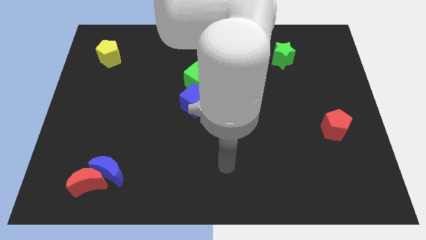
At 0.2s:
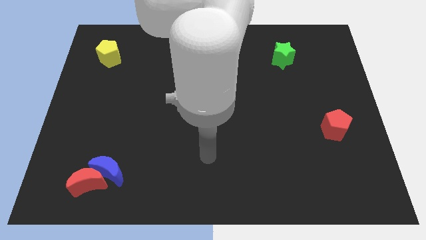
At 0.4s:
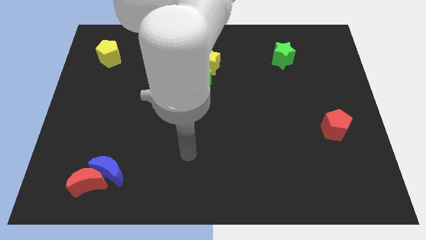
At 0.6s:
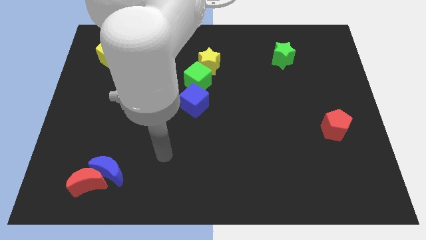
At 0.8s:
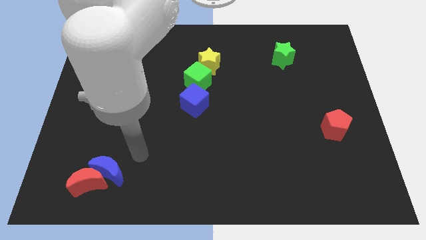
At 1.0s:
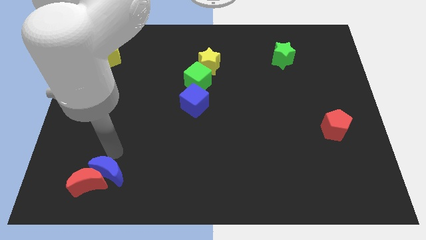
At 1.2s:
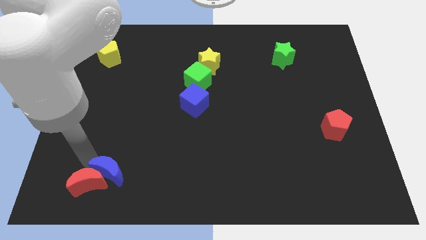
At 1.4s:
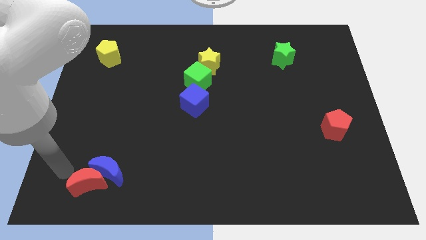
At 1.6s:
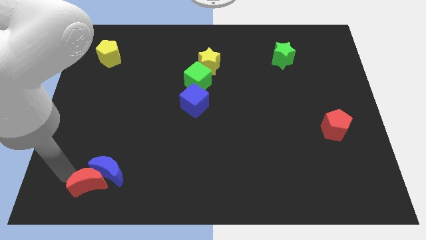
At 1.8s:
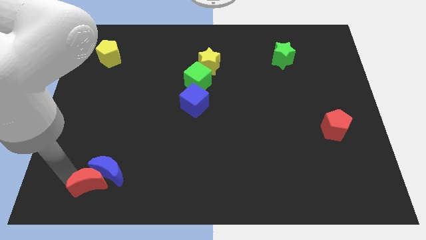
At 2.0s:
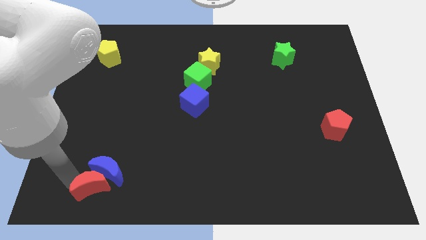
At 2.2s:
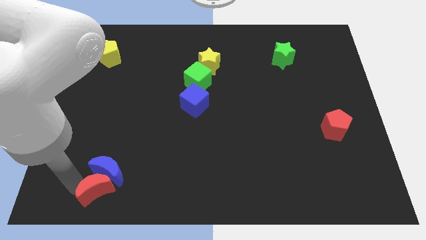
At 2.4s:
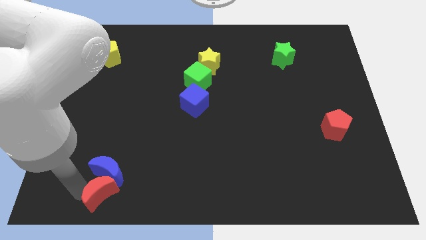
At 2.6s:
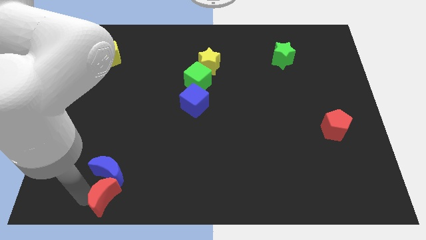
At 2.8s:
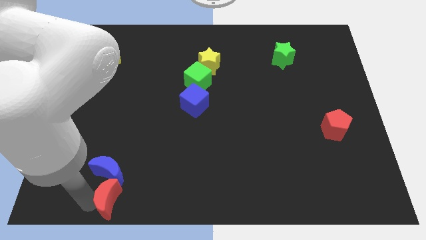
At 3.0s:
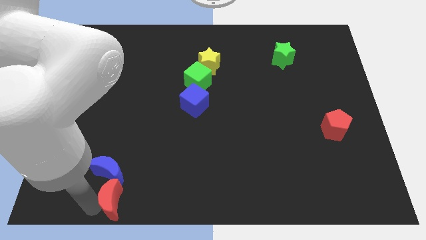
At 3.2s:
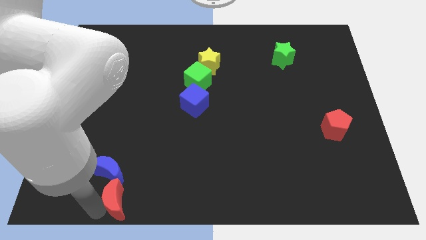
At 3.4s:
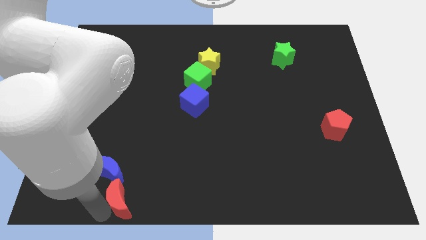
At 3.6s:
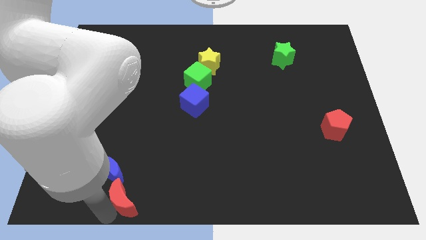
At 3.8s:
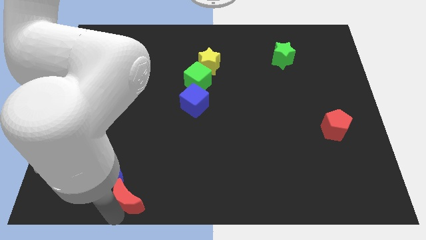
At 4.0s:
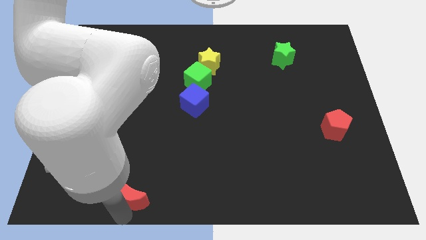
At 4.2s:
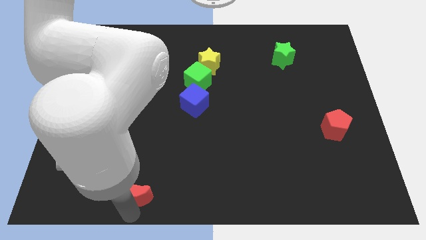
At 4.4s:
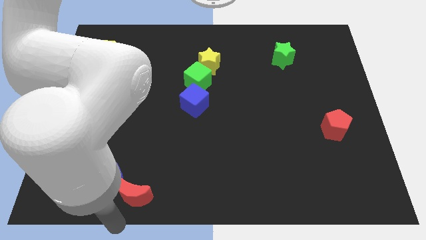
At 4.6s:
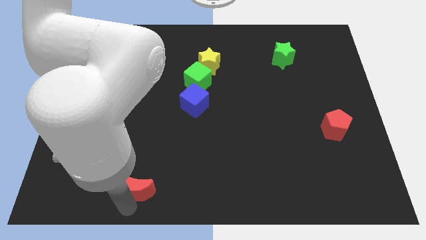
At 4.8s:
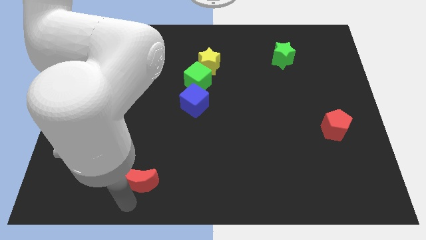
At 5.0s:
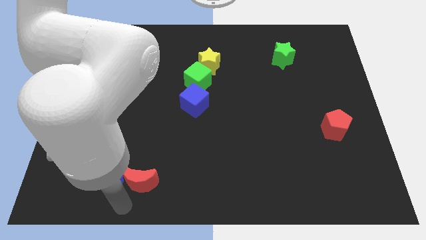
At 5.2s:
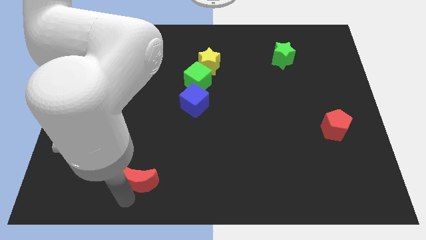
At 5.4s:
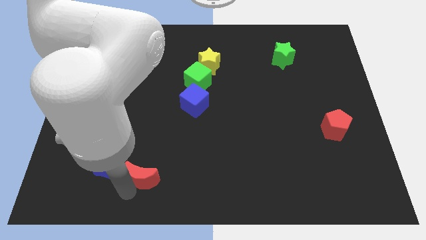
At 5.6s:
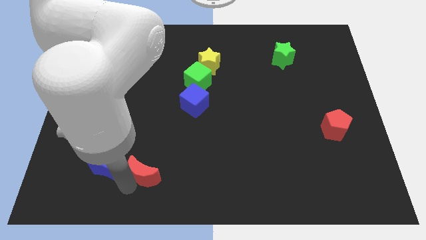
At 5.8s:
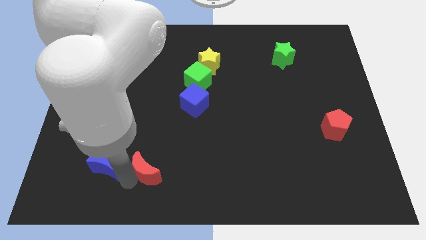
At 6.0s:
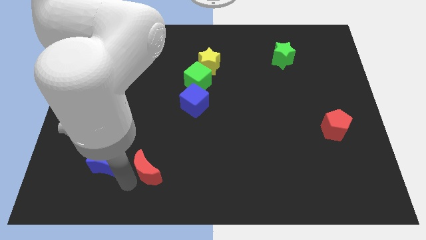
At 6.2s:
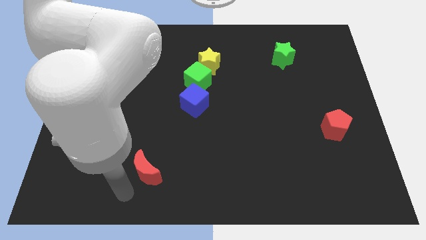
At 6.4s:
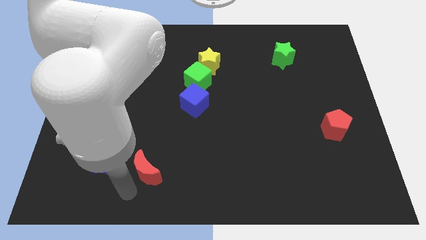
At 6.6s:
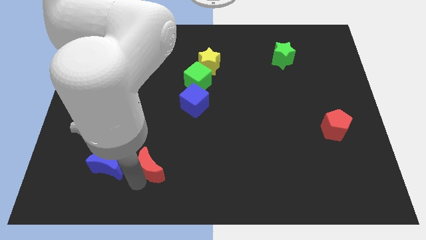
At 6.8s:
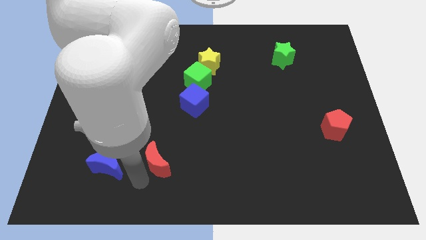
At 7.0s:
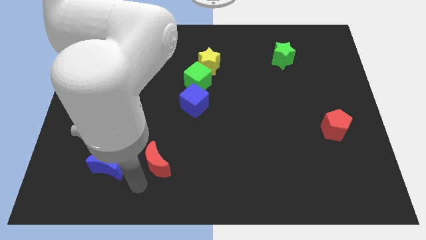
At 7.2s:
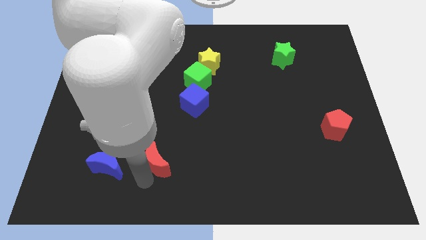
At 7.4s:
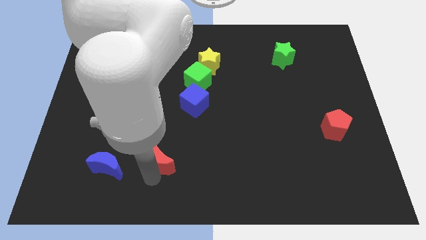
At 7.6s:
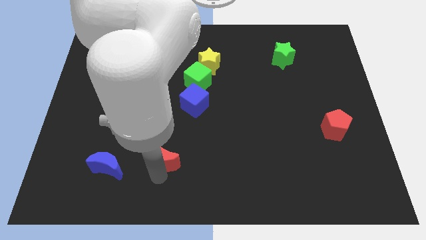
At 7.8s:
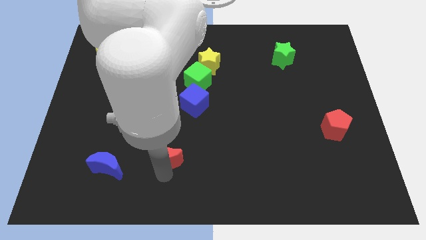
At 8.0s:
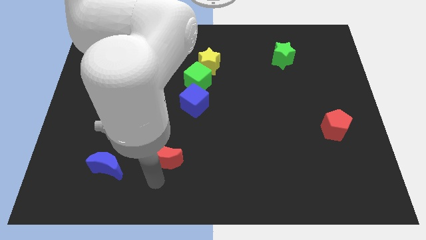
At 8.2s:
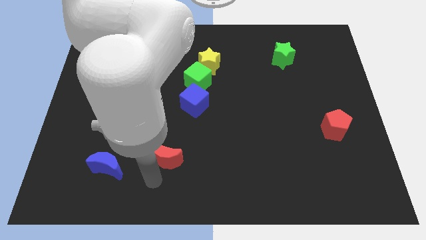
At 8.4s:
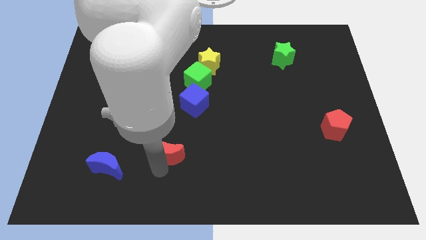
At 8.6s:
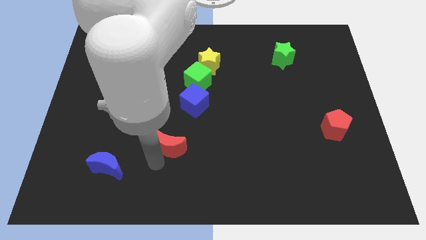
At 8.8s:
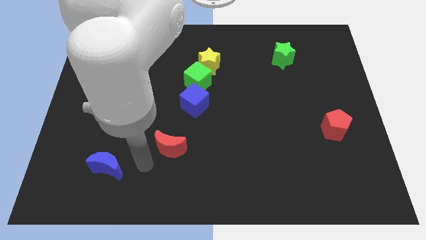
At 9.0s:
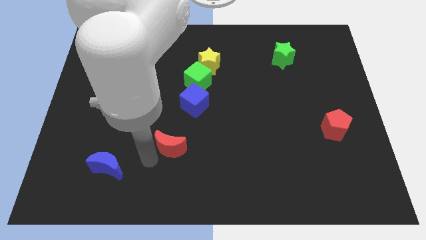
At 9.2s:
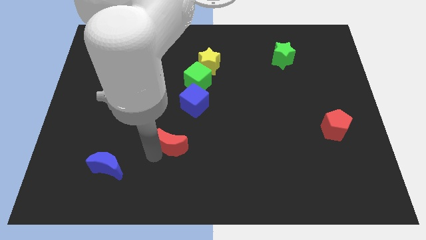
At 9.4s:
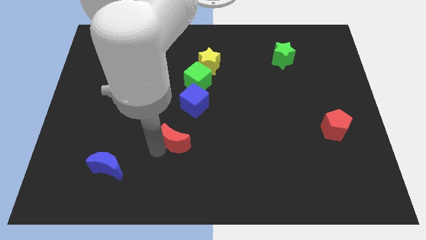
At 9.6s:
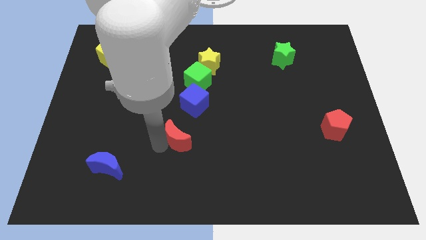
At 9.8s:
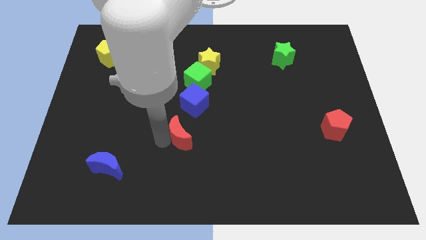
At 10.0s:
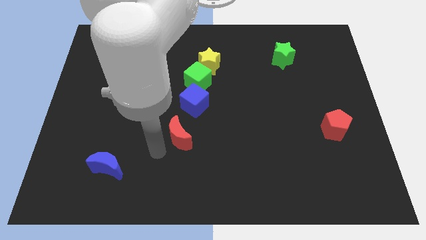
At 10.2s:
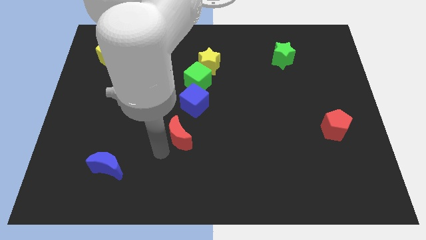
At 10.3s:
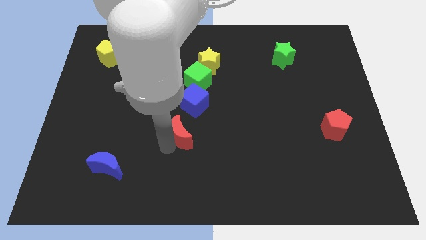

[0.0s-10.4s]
move the red moon to the middle of the board

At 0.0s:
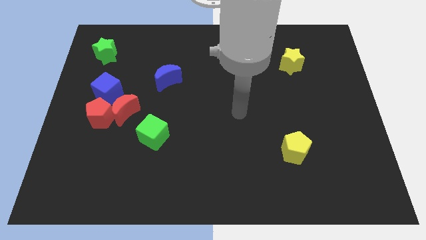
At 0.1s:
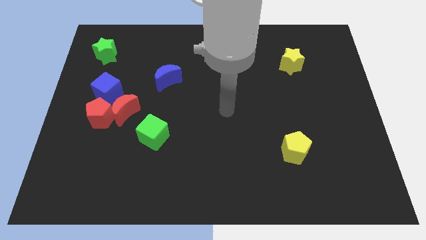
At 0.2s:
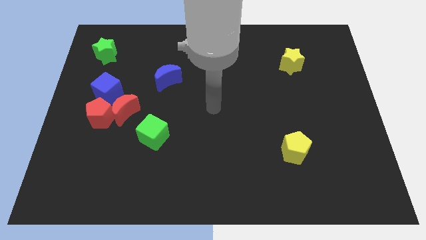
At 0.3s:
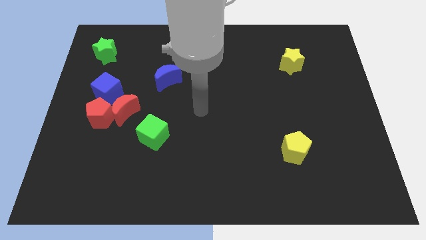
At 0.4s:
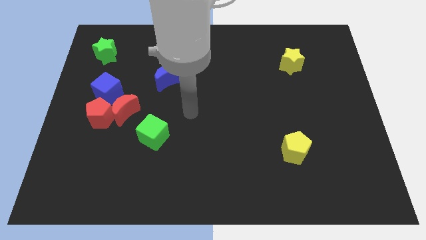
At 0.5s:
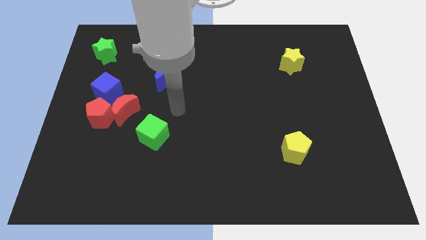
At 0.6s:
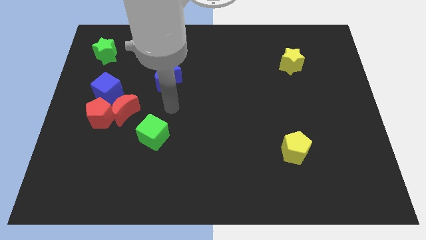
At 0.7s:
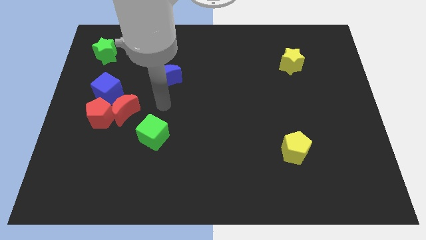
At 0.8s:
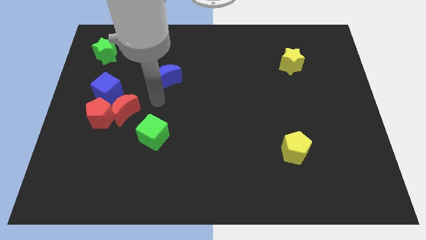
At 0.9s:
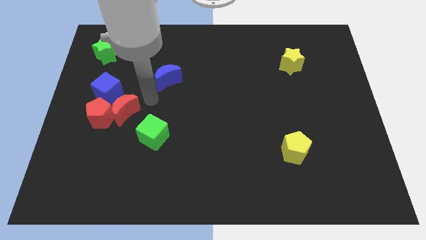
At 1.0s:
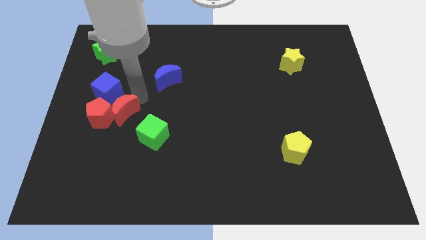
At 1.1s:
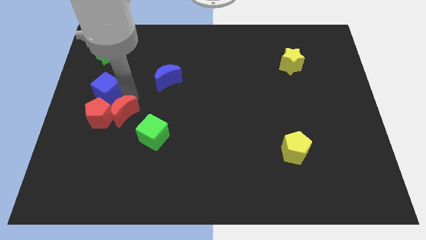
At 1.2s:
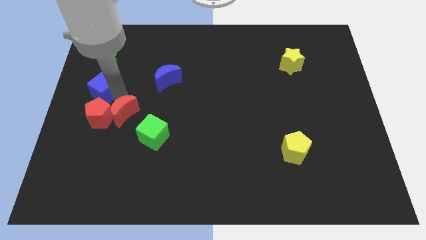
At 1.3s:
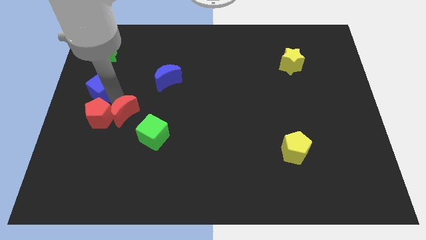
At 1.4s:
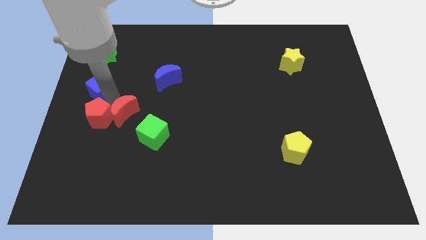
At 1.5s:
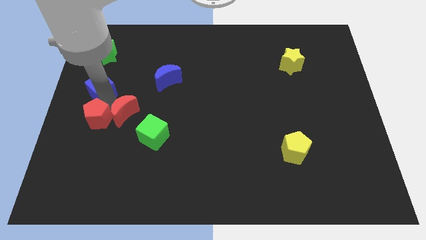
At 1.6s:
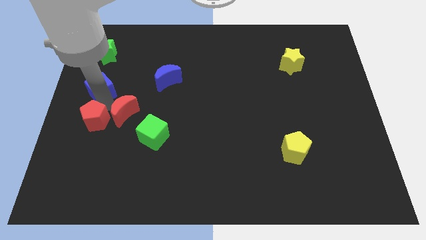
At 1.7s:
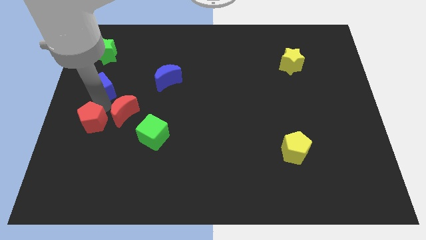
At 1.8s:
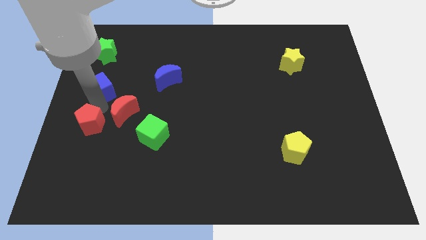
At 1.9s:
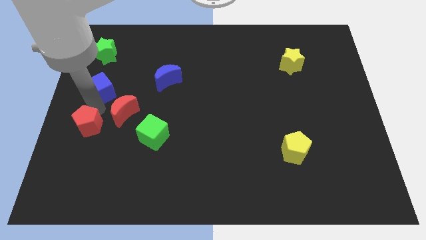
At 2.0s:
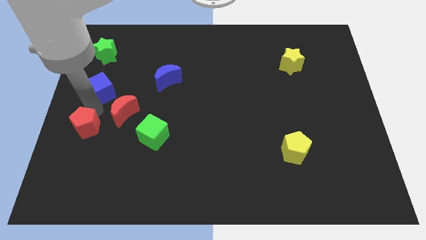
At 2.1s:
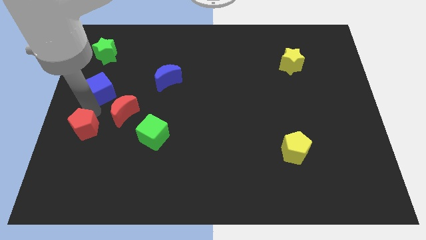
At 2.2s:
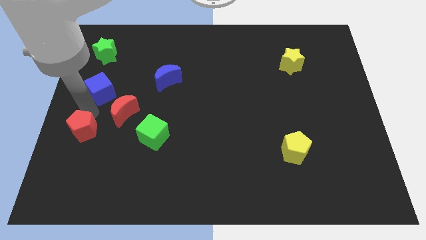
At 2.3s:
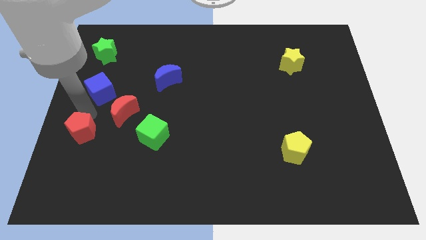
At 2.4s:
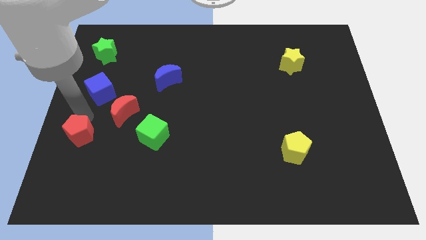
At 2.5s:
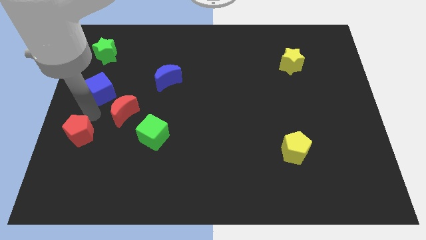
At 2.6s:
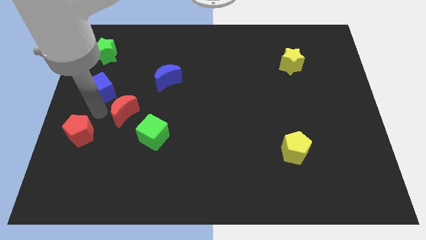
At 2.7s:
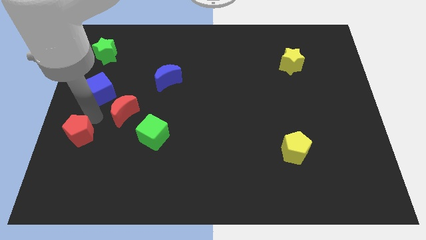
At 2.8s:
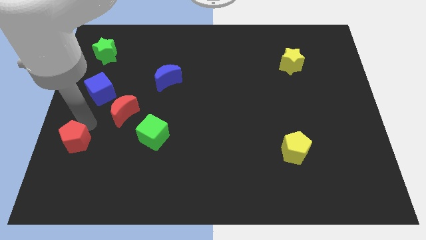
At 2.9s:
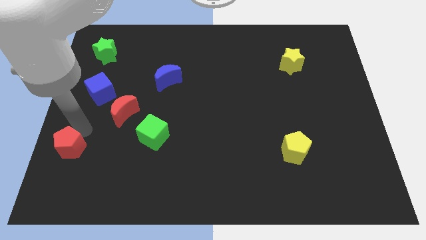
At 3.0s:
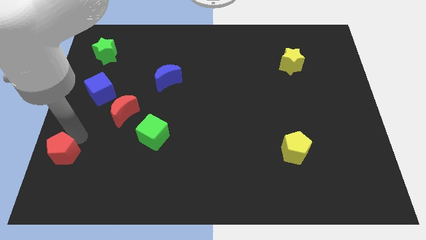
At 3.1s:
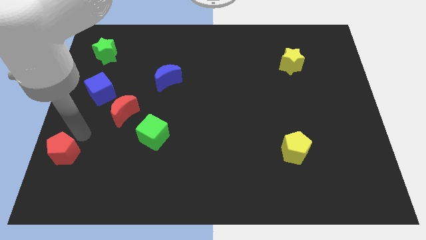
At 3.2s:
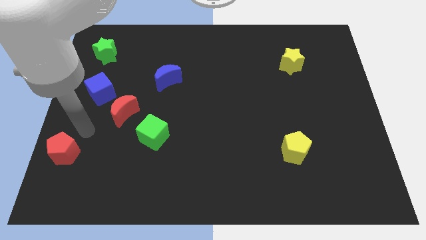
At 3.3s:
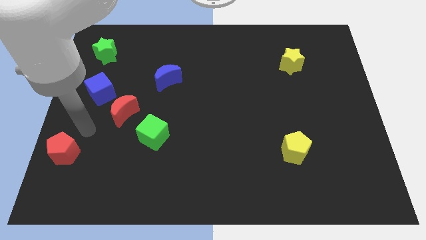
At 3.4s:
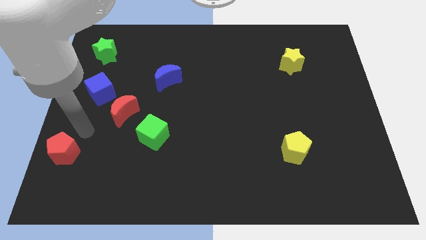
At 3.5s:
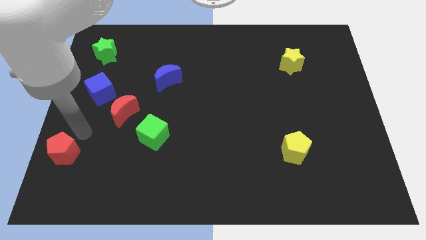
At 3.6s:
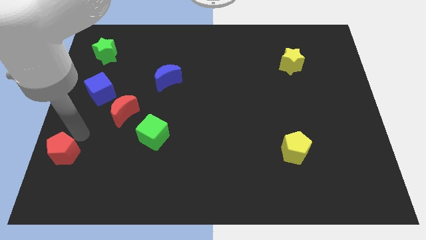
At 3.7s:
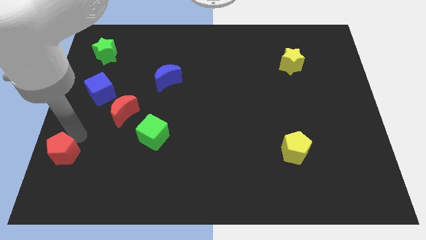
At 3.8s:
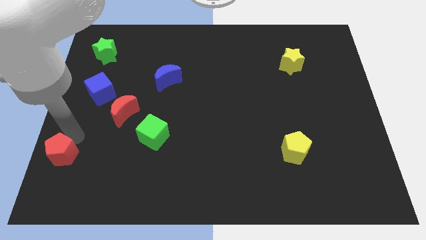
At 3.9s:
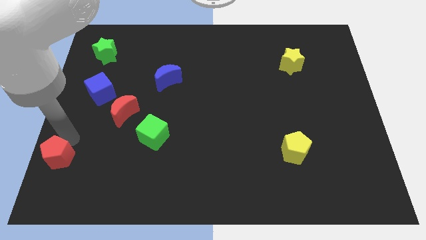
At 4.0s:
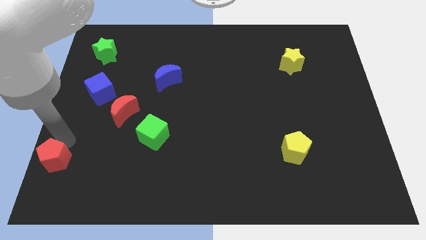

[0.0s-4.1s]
slide the red pentagon to the bottom left corner
